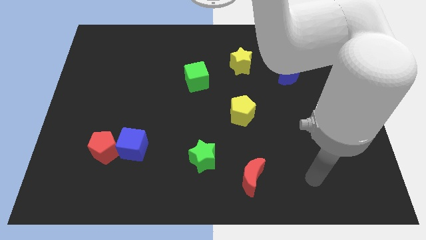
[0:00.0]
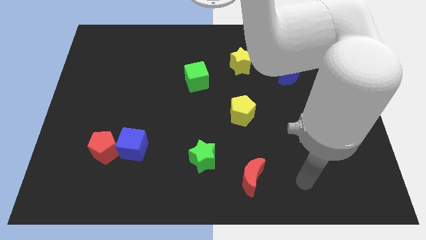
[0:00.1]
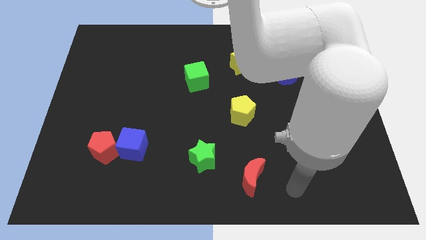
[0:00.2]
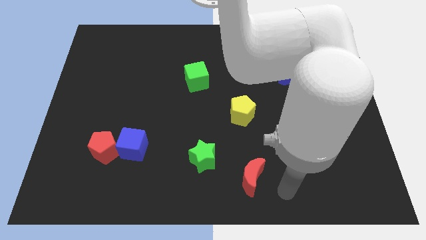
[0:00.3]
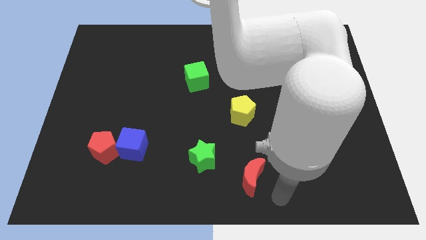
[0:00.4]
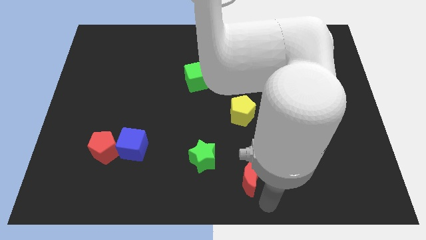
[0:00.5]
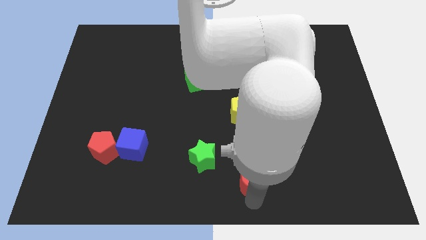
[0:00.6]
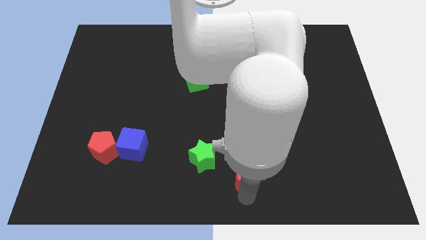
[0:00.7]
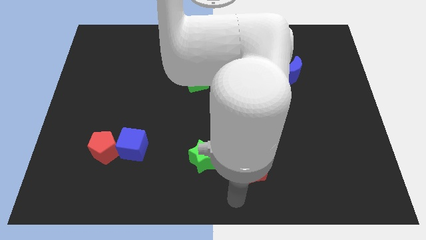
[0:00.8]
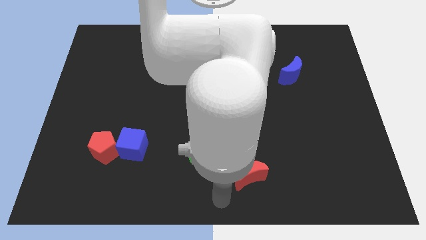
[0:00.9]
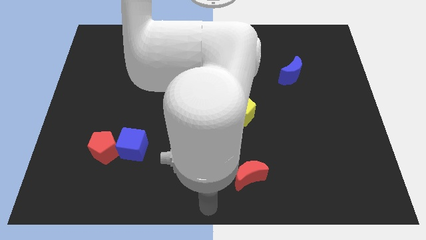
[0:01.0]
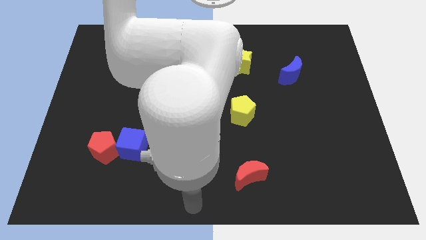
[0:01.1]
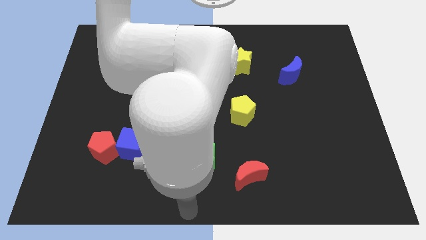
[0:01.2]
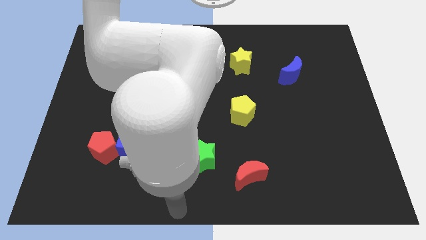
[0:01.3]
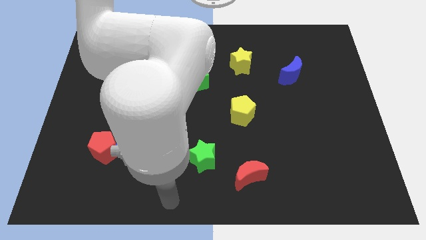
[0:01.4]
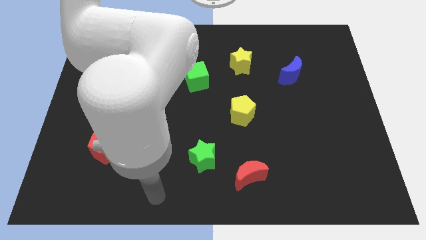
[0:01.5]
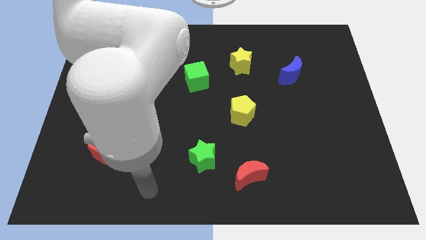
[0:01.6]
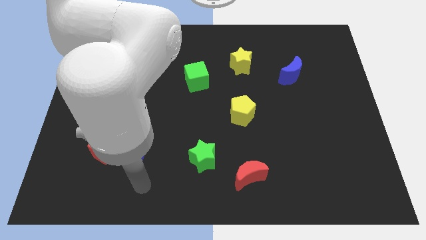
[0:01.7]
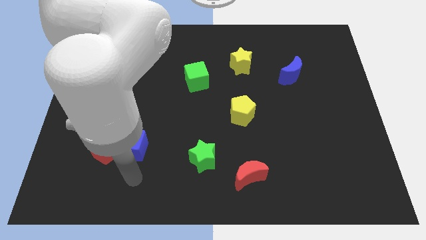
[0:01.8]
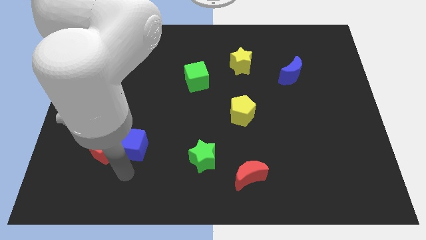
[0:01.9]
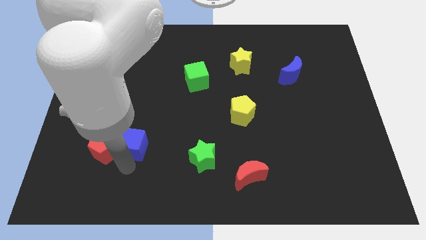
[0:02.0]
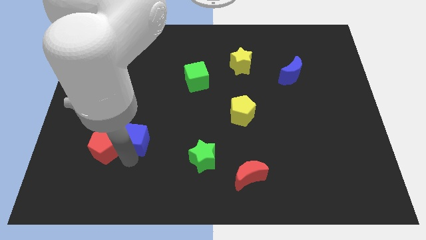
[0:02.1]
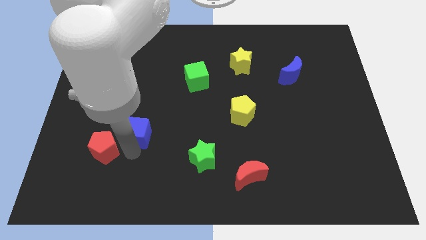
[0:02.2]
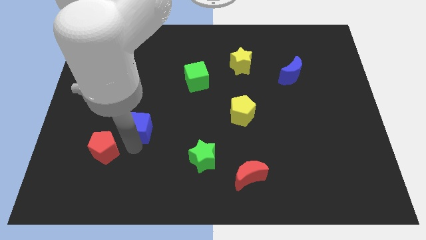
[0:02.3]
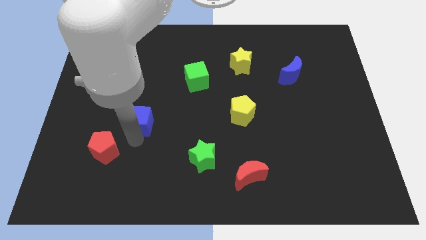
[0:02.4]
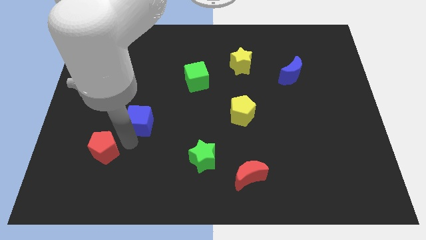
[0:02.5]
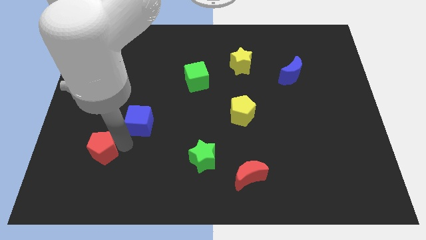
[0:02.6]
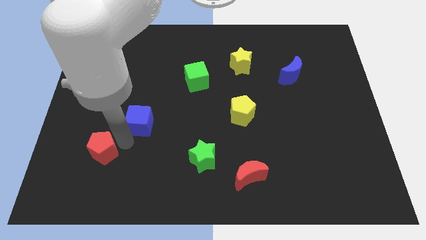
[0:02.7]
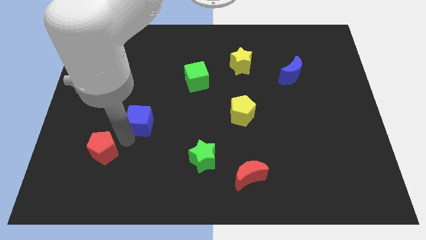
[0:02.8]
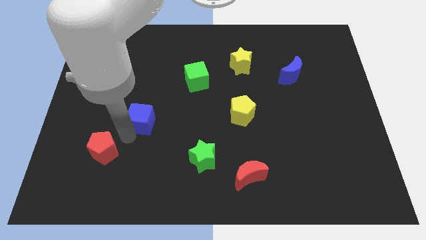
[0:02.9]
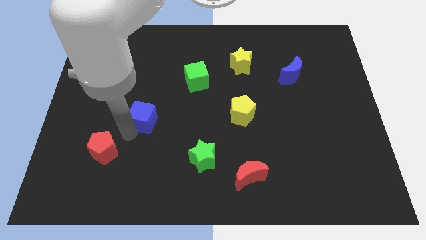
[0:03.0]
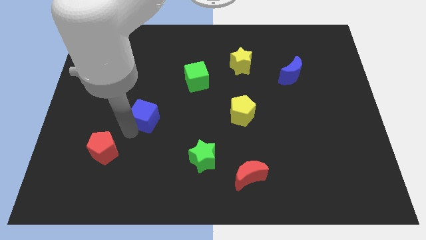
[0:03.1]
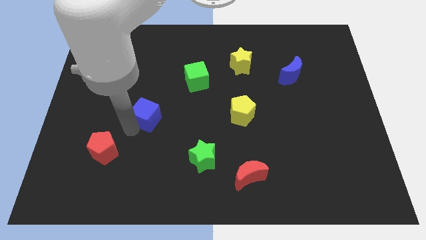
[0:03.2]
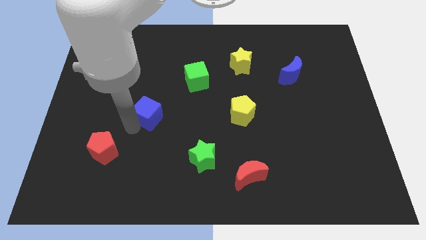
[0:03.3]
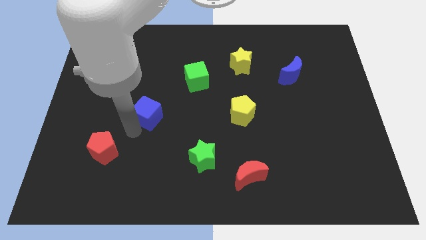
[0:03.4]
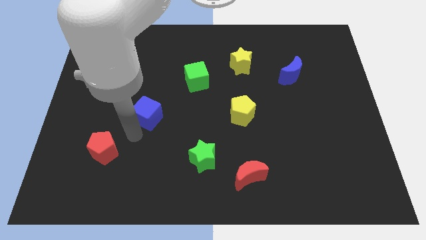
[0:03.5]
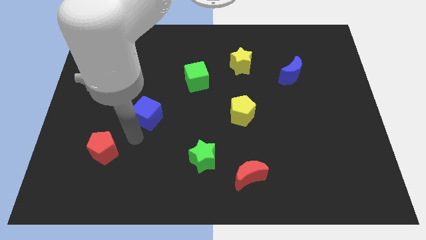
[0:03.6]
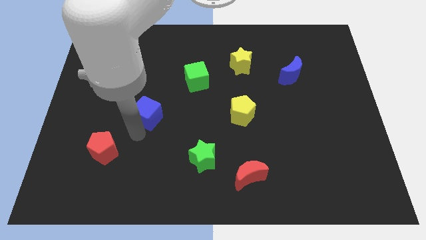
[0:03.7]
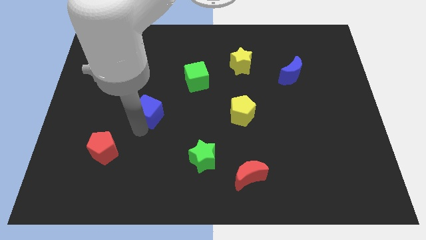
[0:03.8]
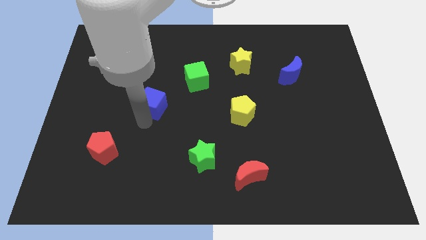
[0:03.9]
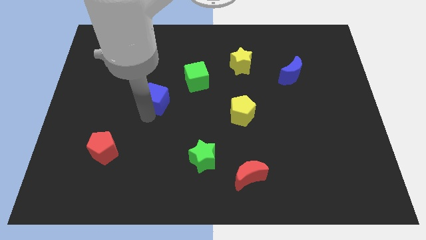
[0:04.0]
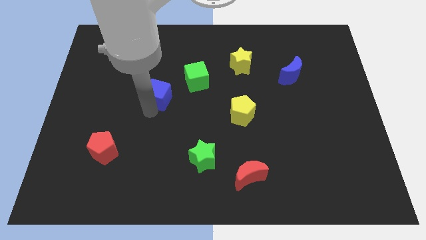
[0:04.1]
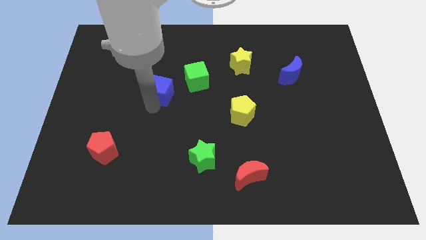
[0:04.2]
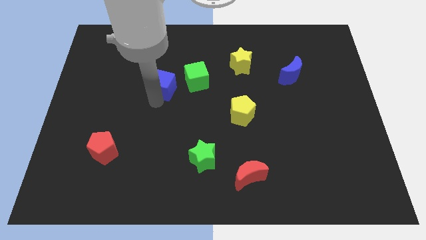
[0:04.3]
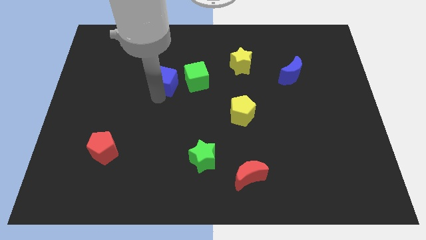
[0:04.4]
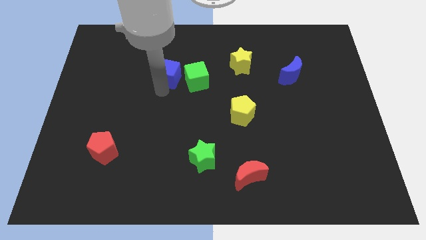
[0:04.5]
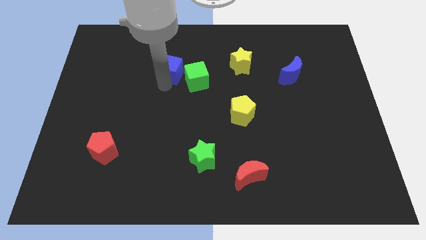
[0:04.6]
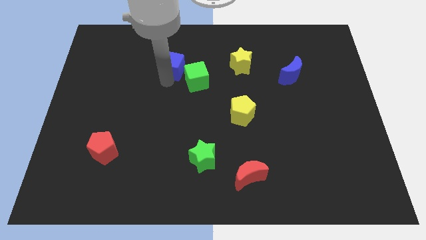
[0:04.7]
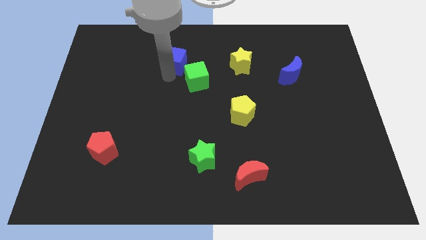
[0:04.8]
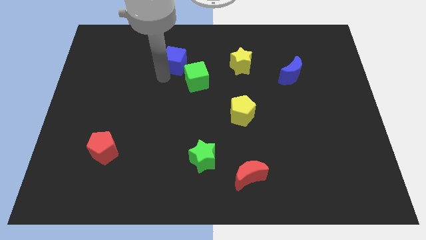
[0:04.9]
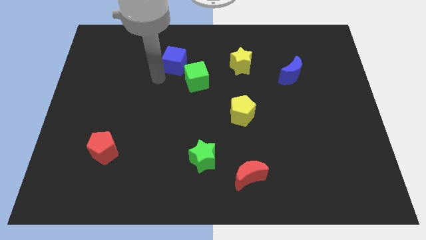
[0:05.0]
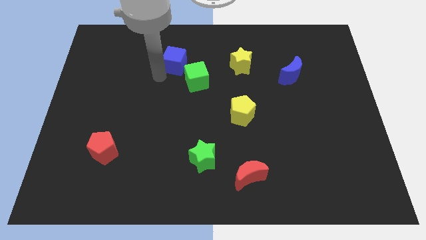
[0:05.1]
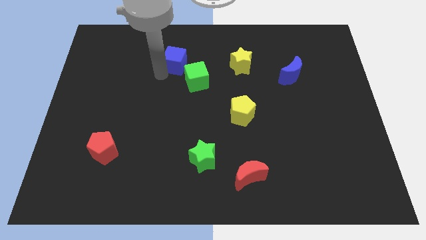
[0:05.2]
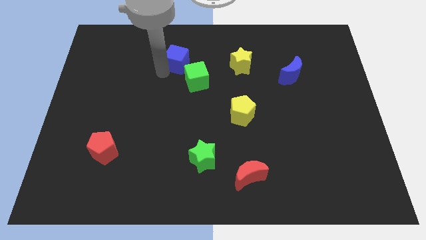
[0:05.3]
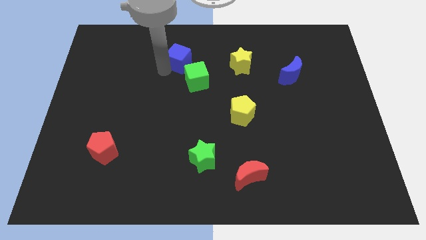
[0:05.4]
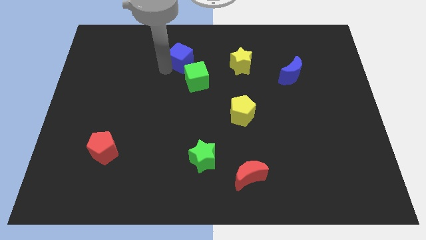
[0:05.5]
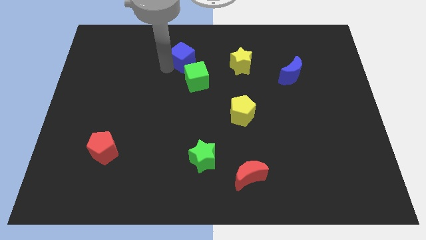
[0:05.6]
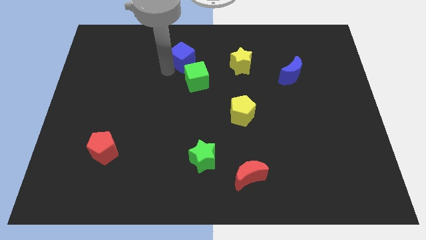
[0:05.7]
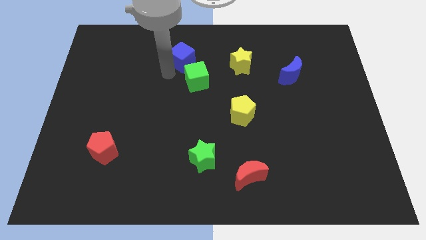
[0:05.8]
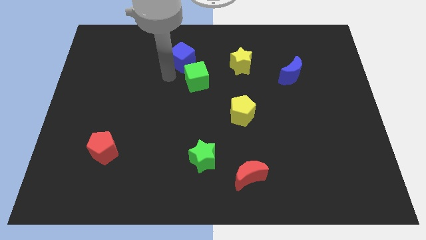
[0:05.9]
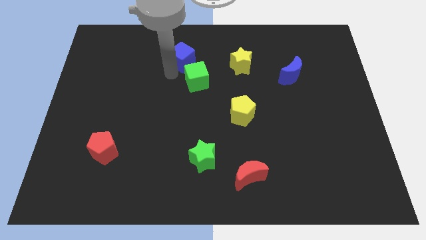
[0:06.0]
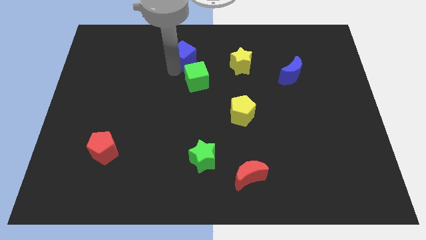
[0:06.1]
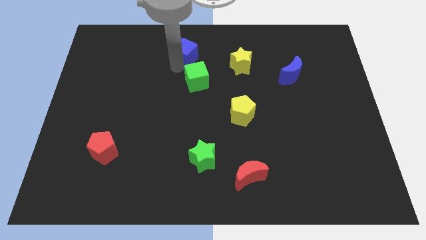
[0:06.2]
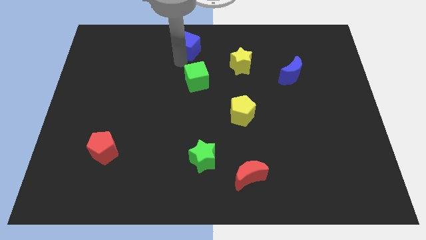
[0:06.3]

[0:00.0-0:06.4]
put the blue cube to the top

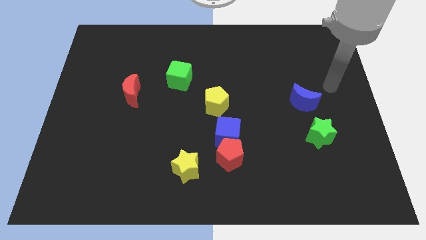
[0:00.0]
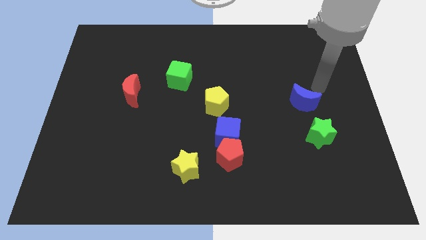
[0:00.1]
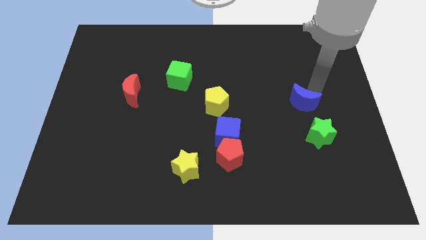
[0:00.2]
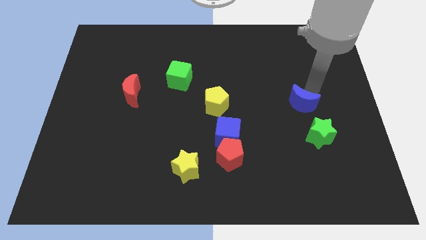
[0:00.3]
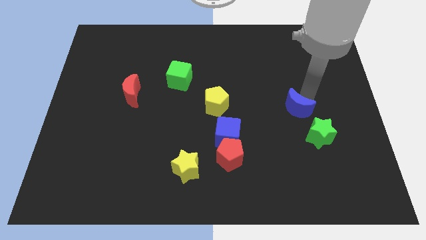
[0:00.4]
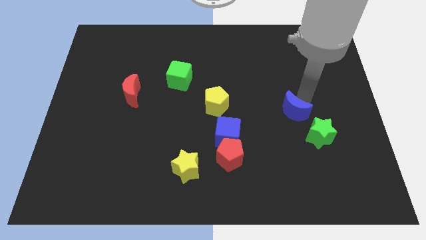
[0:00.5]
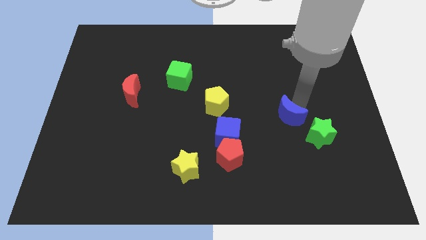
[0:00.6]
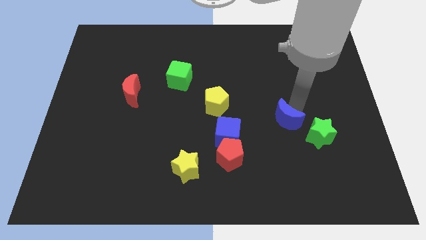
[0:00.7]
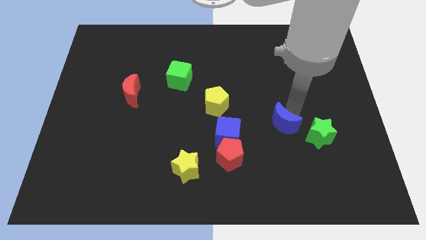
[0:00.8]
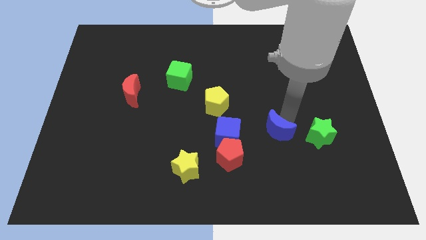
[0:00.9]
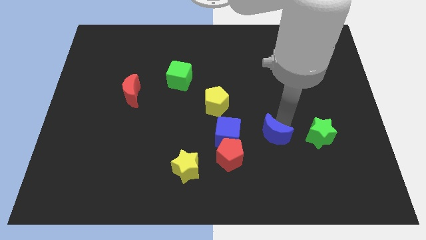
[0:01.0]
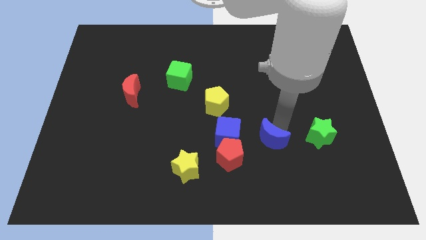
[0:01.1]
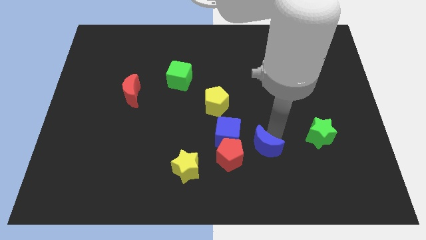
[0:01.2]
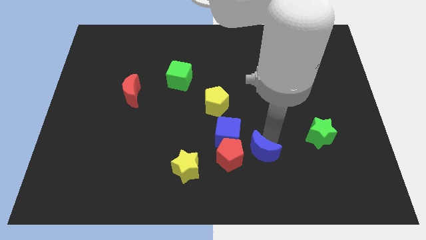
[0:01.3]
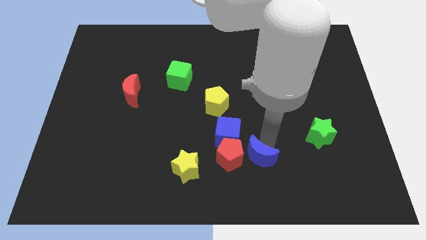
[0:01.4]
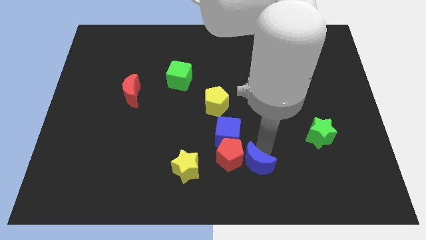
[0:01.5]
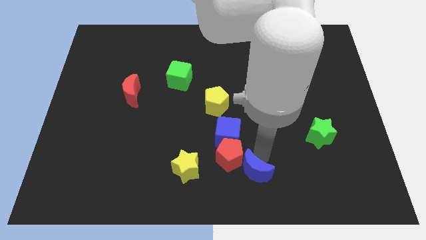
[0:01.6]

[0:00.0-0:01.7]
push the blue moon to the bottom side
